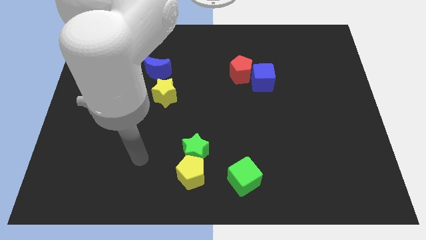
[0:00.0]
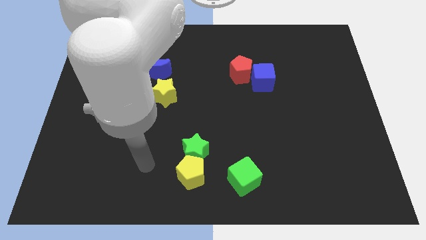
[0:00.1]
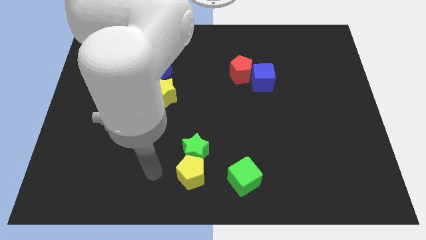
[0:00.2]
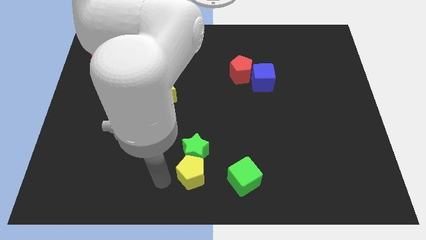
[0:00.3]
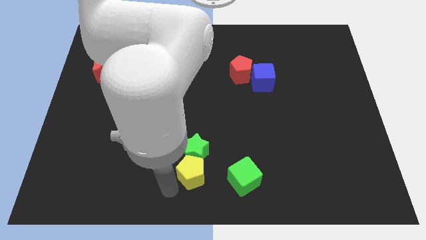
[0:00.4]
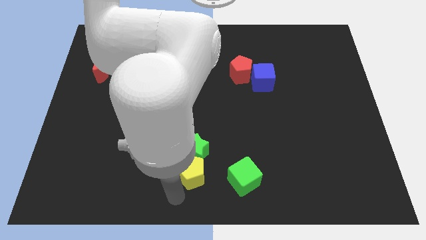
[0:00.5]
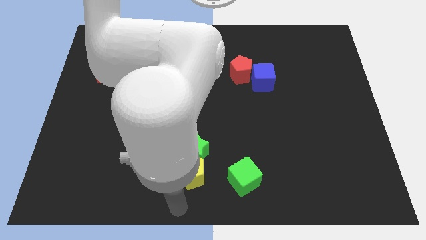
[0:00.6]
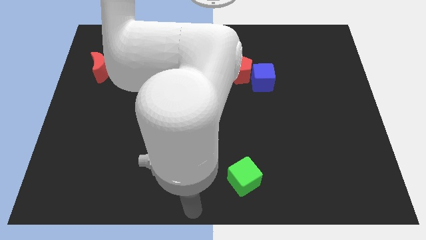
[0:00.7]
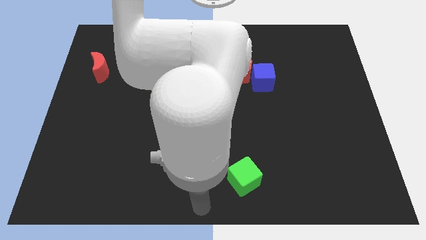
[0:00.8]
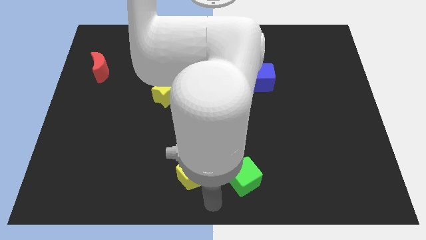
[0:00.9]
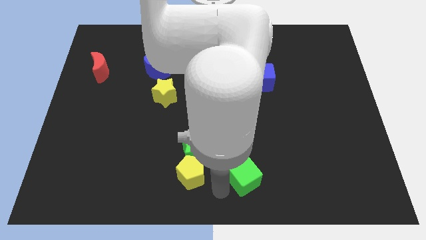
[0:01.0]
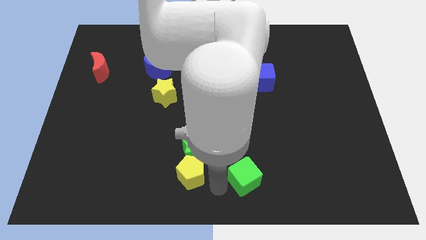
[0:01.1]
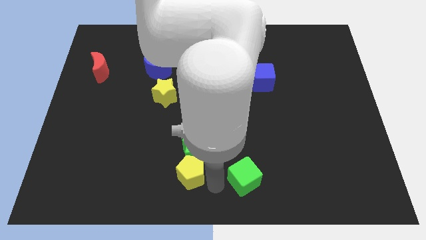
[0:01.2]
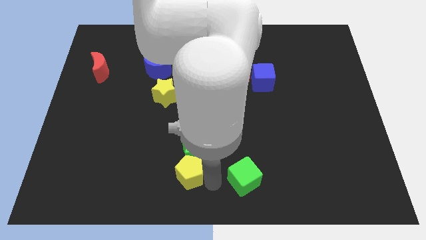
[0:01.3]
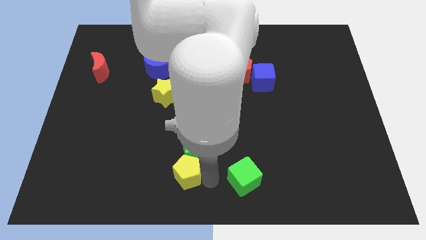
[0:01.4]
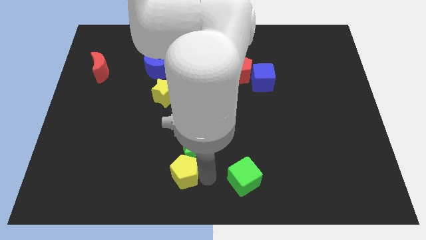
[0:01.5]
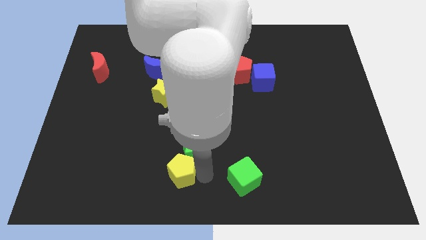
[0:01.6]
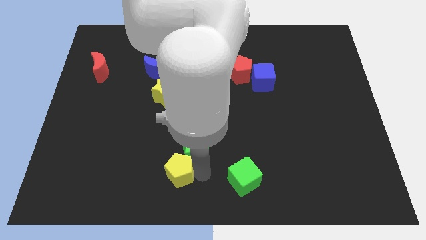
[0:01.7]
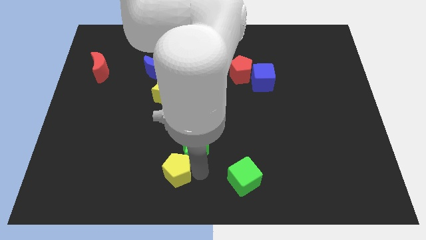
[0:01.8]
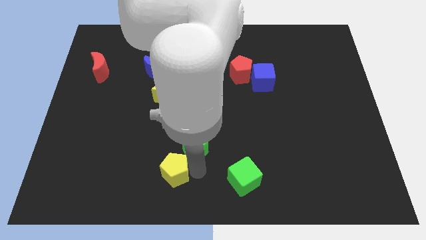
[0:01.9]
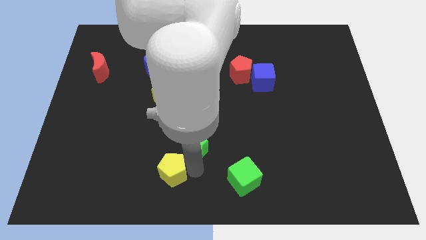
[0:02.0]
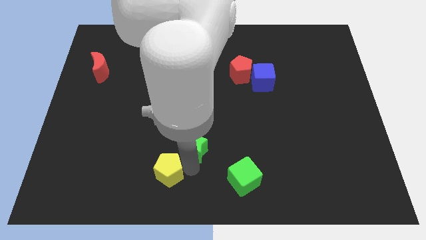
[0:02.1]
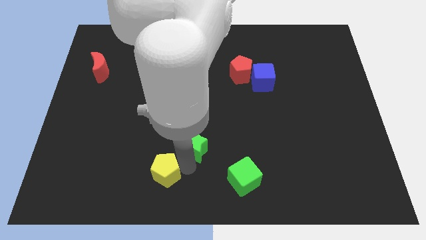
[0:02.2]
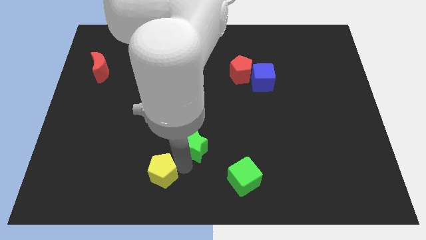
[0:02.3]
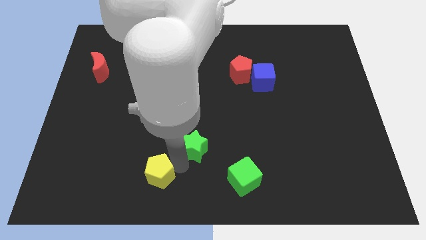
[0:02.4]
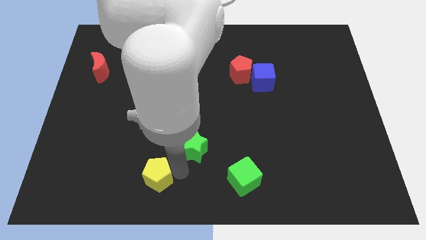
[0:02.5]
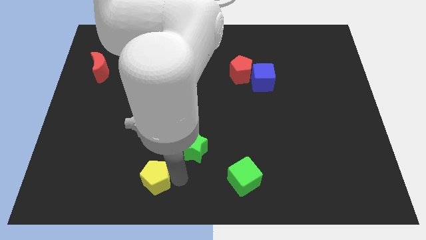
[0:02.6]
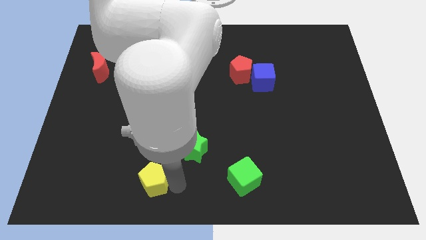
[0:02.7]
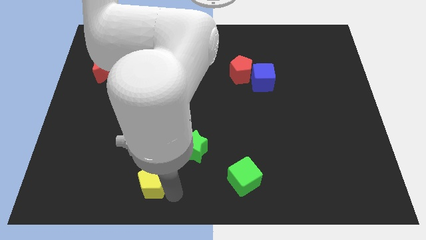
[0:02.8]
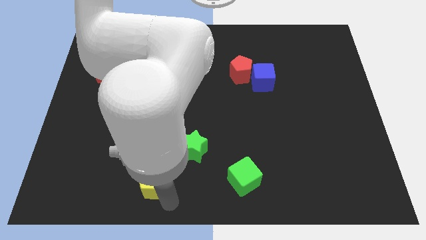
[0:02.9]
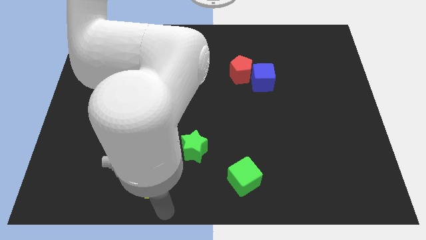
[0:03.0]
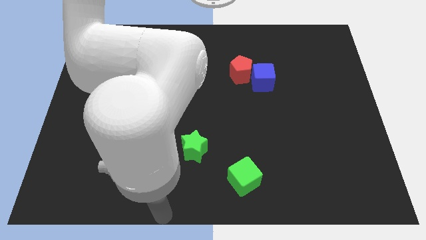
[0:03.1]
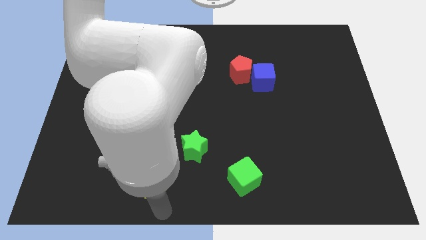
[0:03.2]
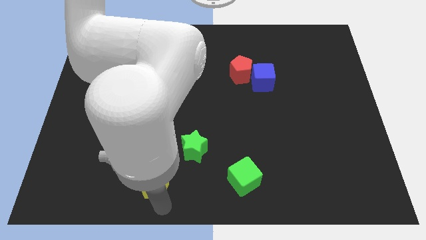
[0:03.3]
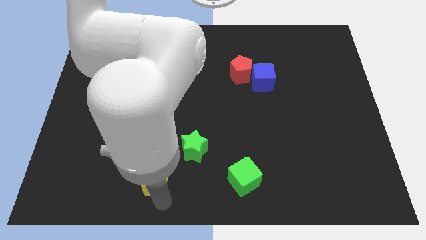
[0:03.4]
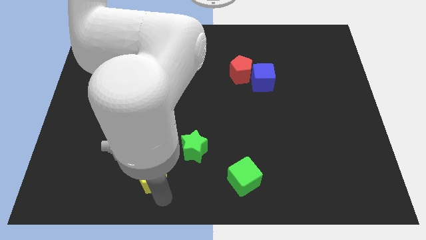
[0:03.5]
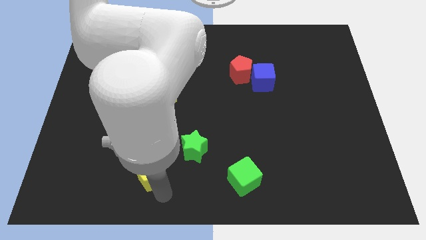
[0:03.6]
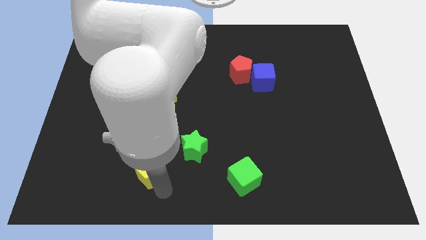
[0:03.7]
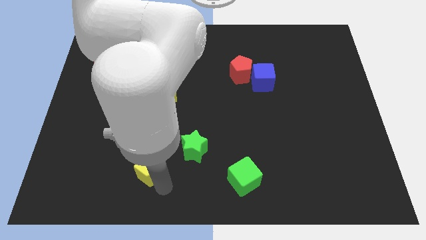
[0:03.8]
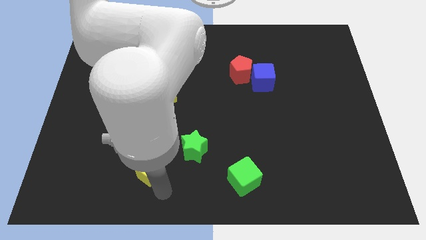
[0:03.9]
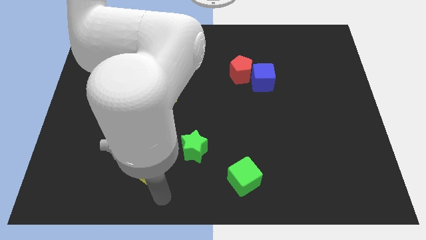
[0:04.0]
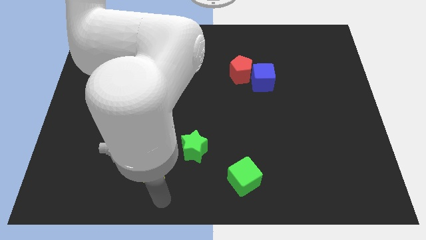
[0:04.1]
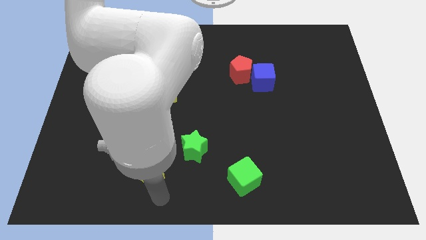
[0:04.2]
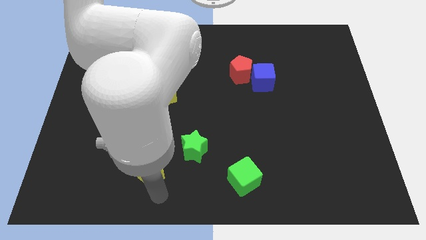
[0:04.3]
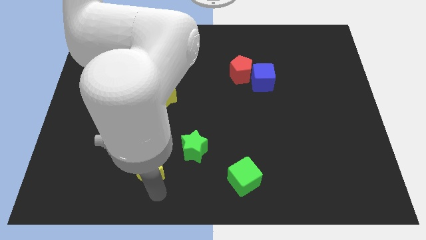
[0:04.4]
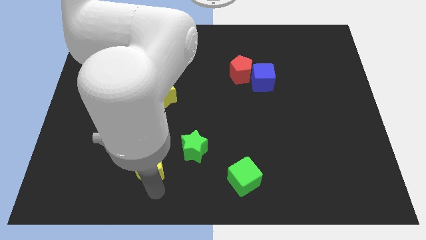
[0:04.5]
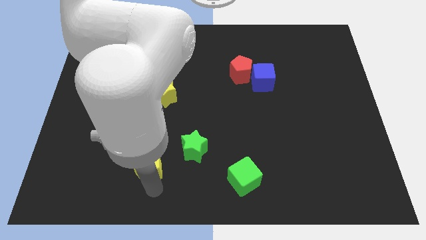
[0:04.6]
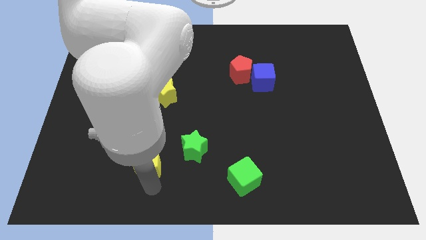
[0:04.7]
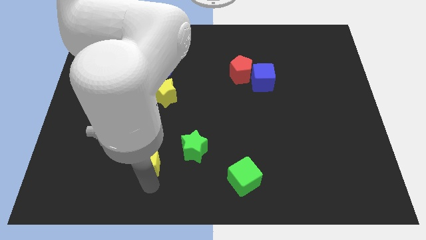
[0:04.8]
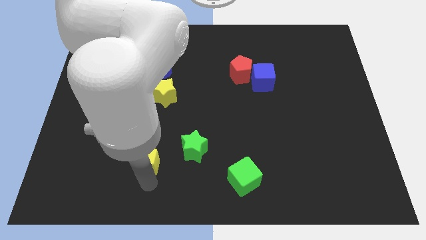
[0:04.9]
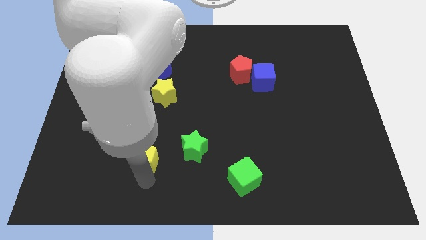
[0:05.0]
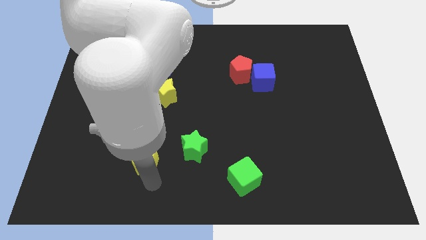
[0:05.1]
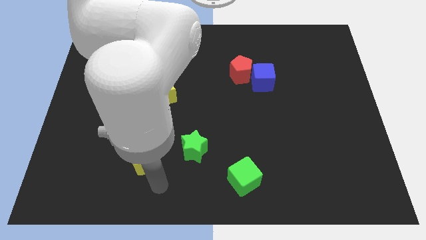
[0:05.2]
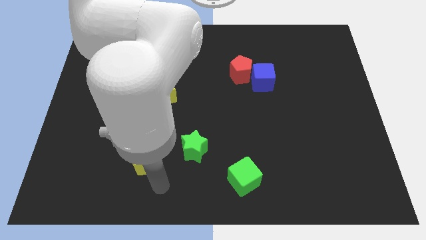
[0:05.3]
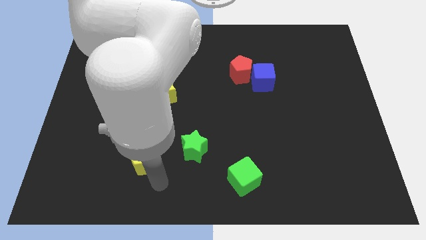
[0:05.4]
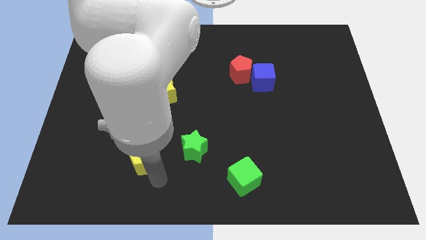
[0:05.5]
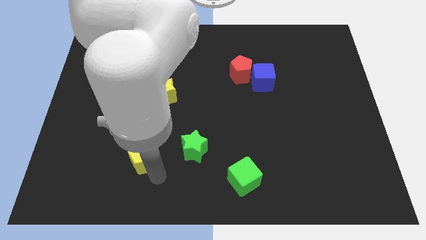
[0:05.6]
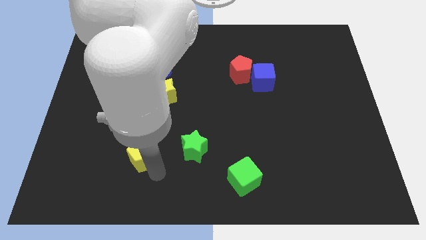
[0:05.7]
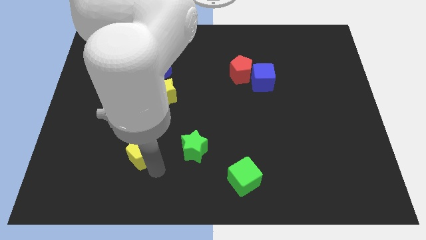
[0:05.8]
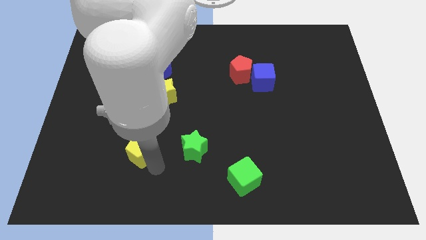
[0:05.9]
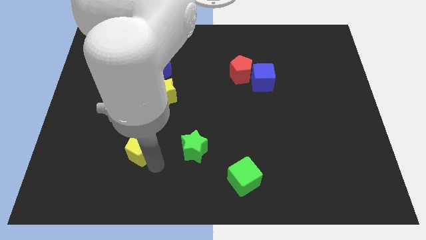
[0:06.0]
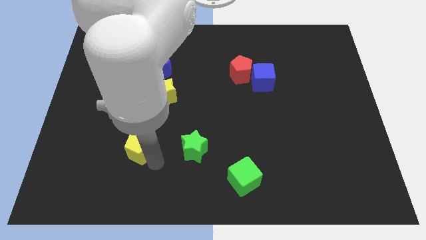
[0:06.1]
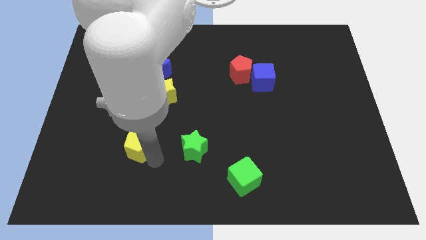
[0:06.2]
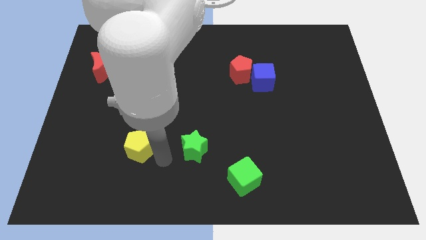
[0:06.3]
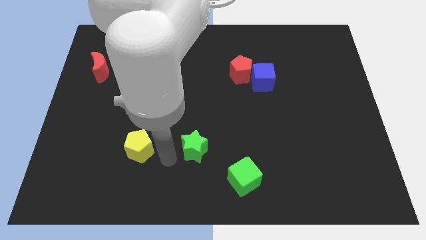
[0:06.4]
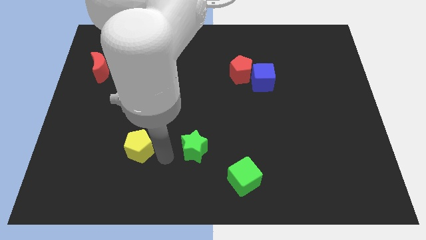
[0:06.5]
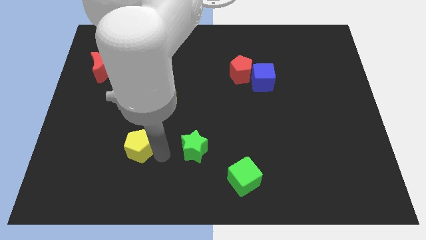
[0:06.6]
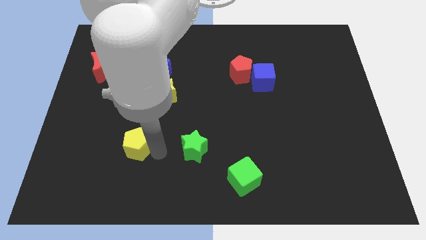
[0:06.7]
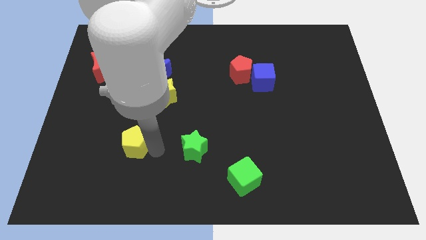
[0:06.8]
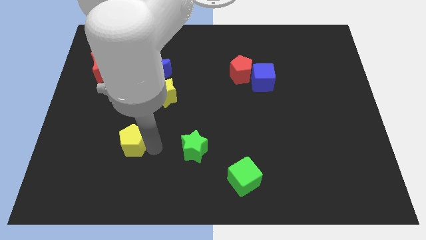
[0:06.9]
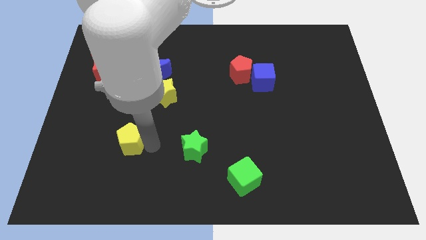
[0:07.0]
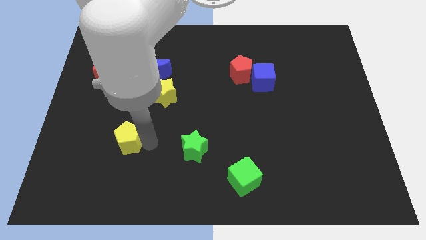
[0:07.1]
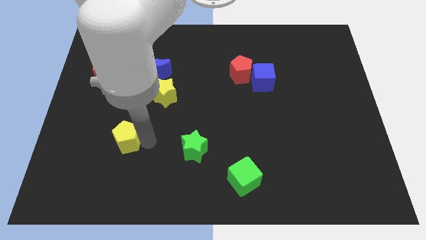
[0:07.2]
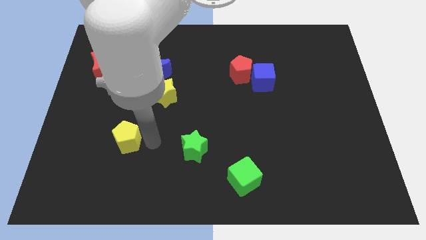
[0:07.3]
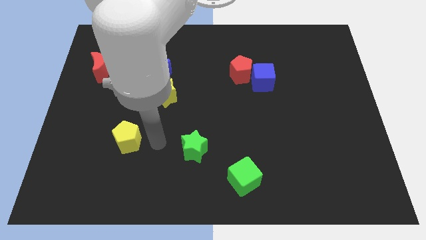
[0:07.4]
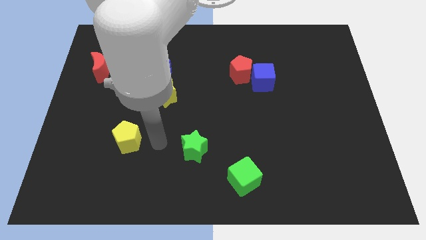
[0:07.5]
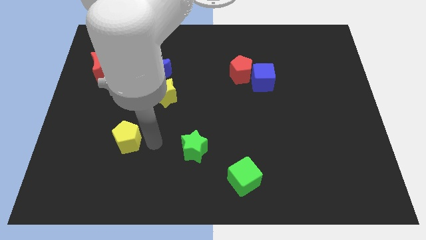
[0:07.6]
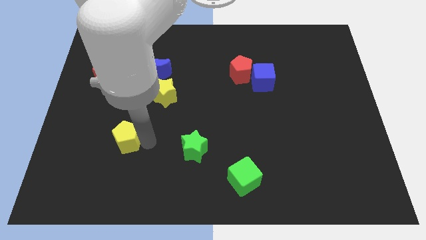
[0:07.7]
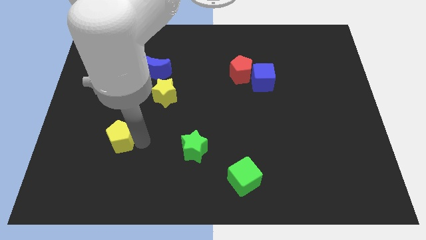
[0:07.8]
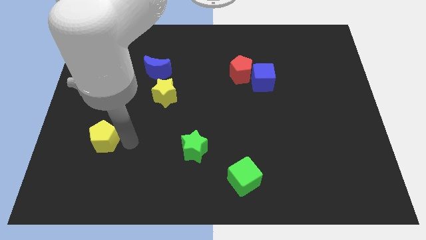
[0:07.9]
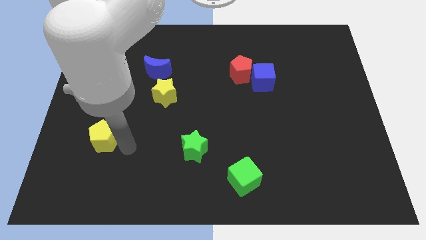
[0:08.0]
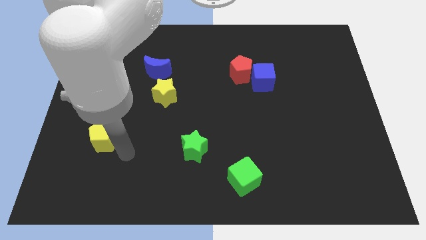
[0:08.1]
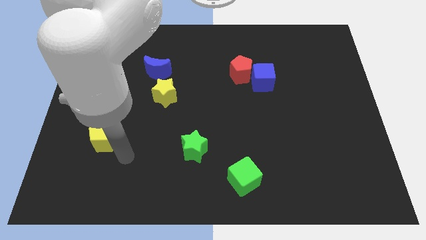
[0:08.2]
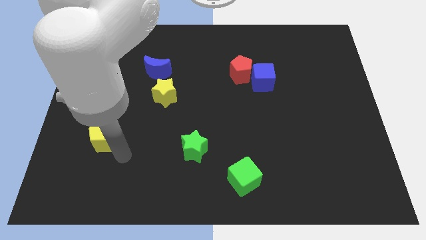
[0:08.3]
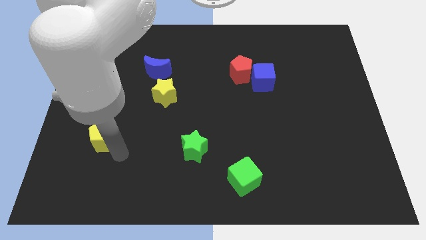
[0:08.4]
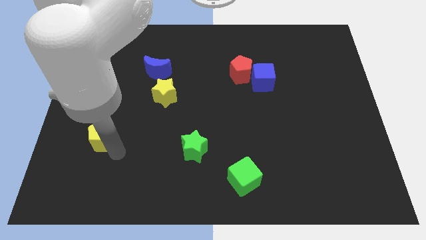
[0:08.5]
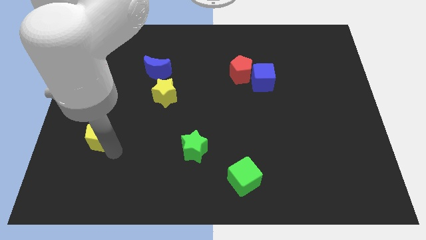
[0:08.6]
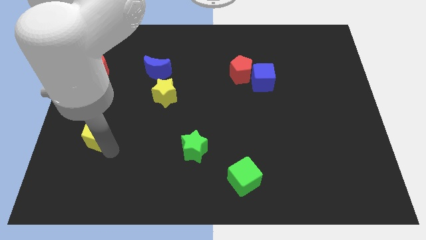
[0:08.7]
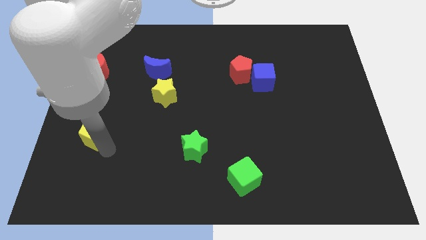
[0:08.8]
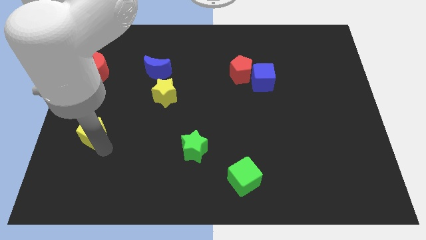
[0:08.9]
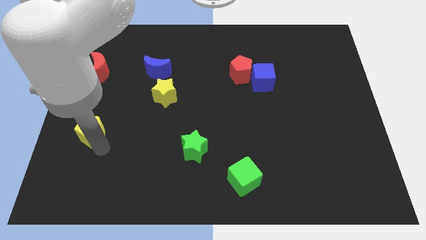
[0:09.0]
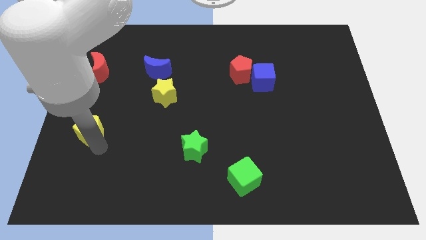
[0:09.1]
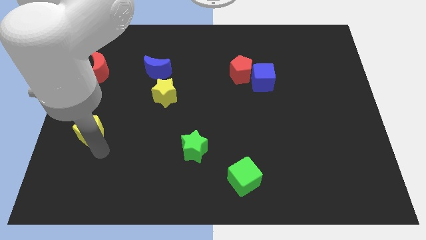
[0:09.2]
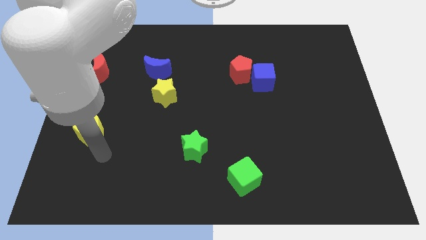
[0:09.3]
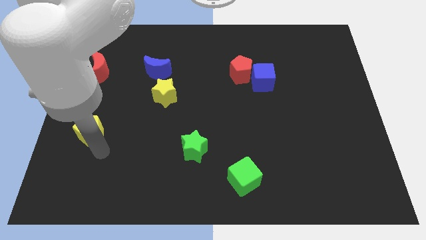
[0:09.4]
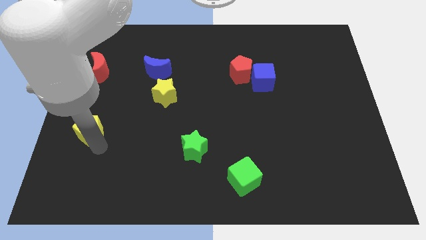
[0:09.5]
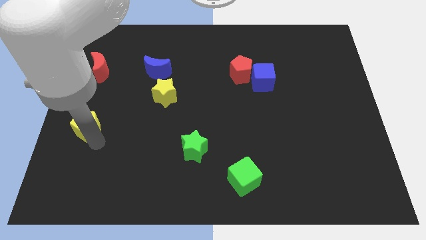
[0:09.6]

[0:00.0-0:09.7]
put the yellow pentagon to the left side
